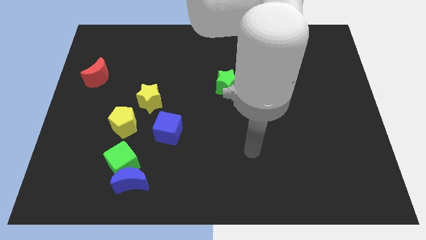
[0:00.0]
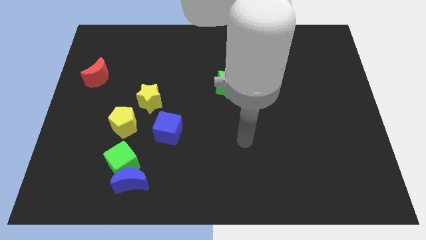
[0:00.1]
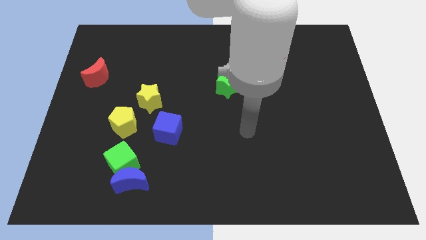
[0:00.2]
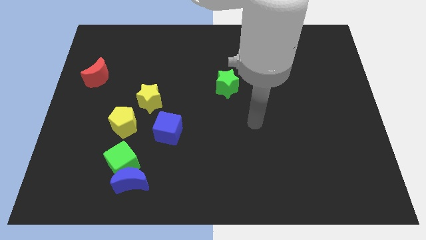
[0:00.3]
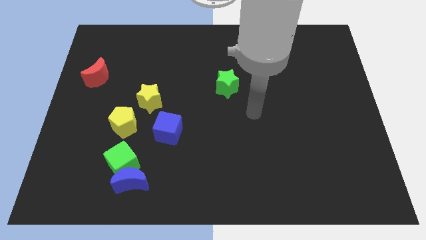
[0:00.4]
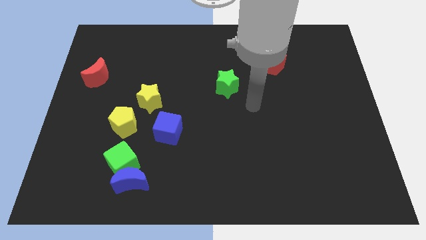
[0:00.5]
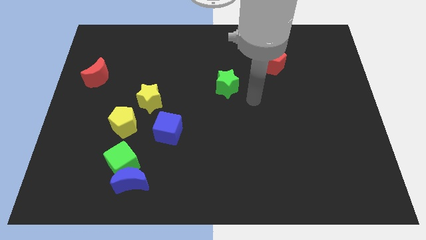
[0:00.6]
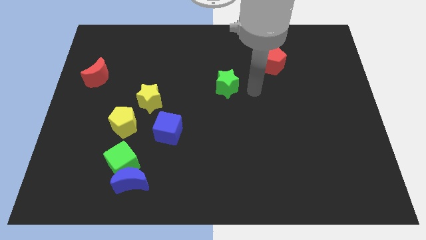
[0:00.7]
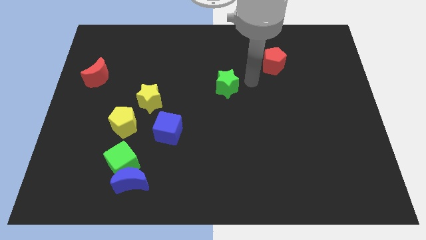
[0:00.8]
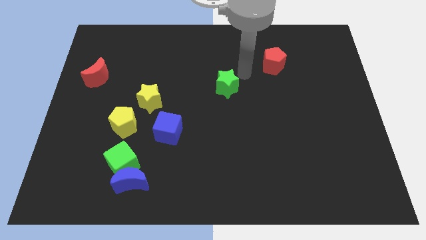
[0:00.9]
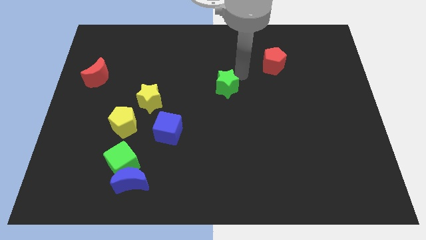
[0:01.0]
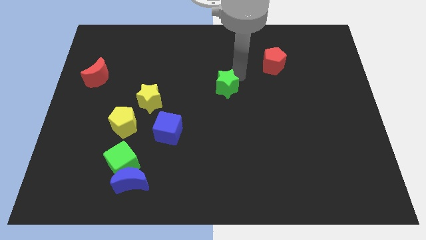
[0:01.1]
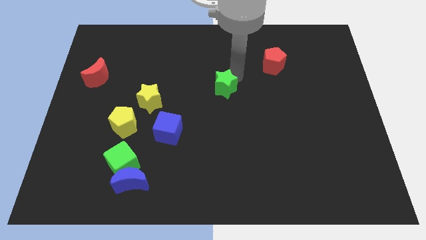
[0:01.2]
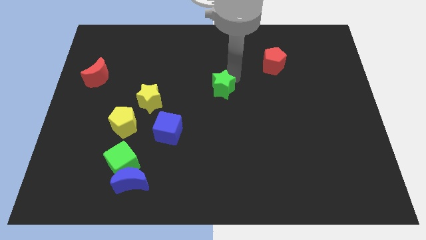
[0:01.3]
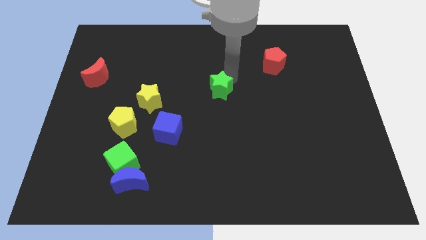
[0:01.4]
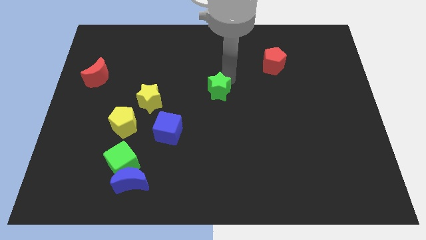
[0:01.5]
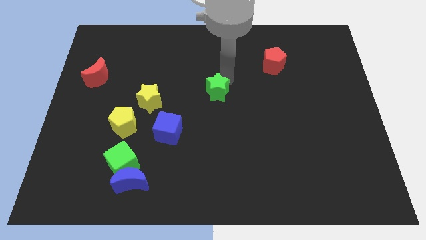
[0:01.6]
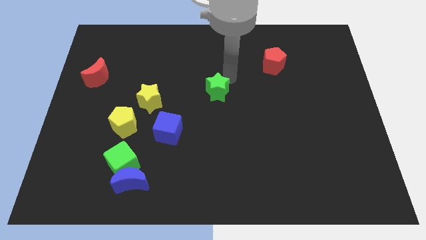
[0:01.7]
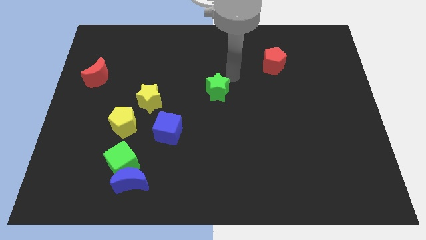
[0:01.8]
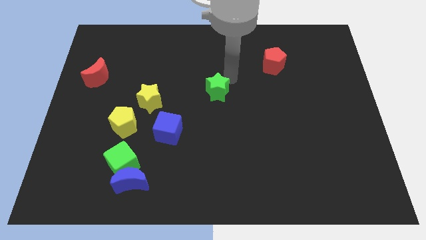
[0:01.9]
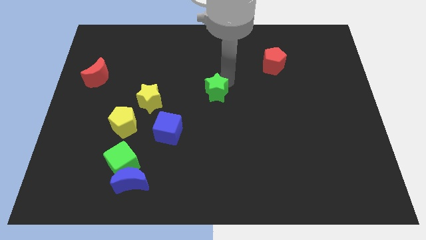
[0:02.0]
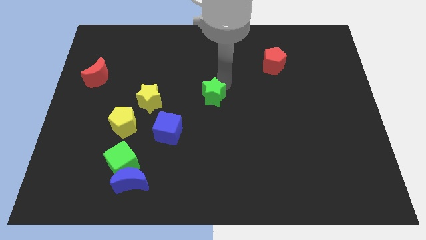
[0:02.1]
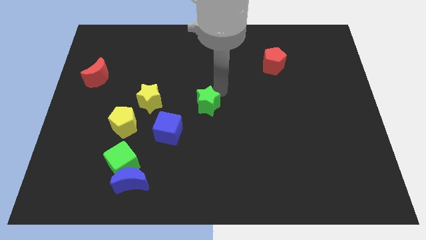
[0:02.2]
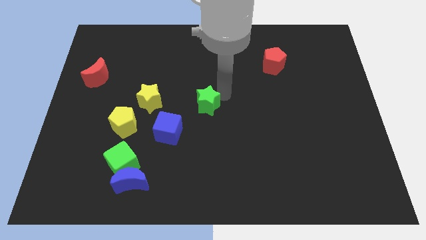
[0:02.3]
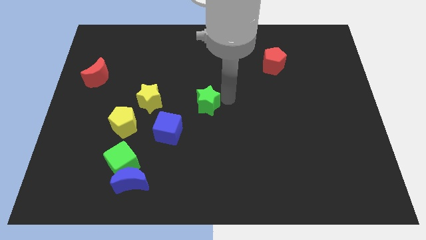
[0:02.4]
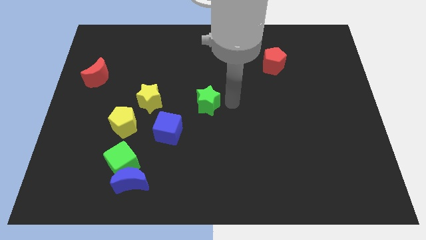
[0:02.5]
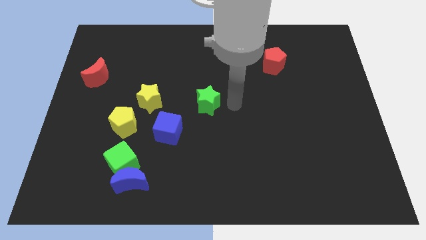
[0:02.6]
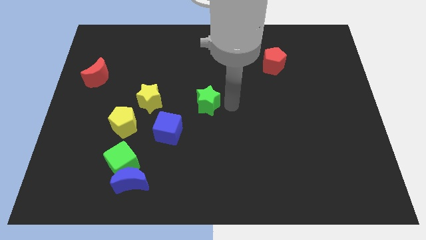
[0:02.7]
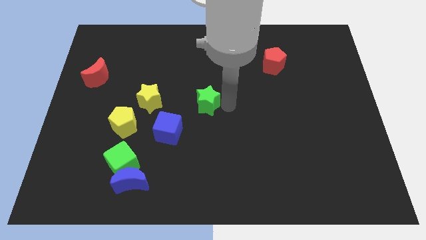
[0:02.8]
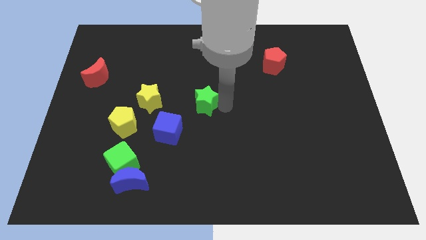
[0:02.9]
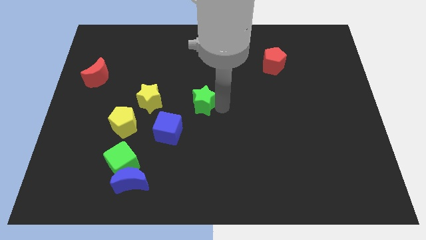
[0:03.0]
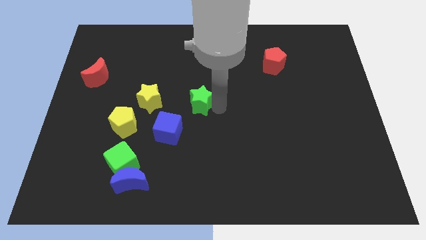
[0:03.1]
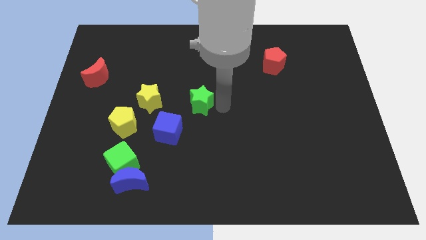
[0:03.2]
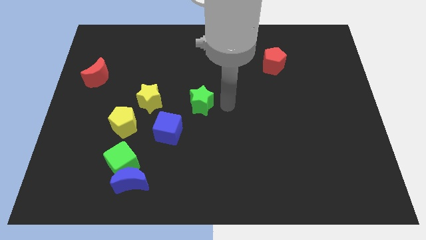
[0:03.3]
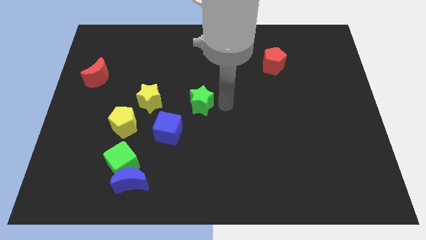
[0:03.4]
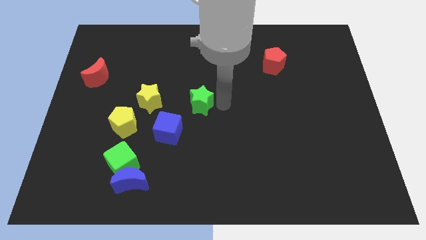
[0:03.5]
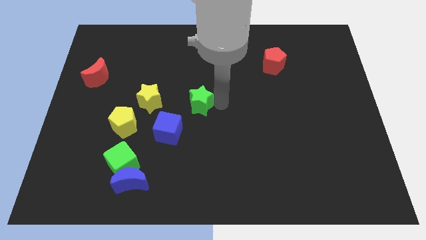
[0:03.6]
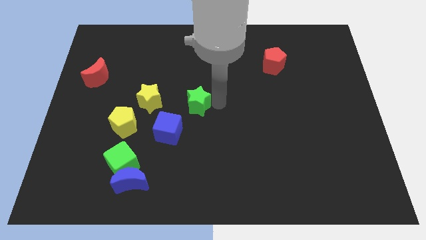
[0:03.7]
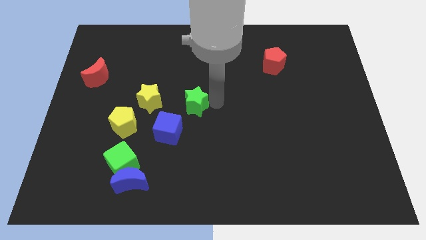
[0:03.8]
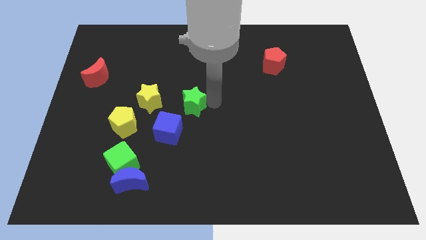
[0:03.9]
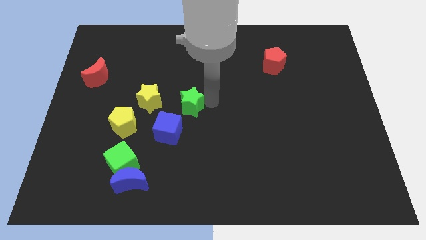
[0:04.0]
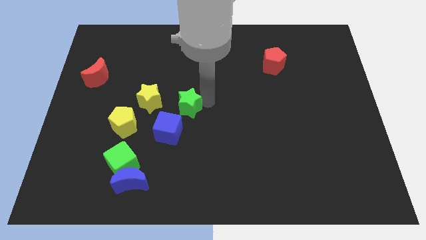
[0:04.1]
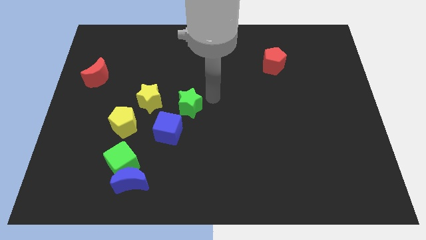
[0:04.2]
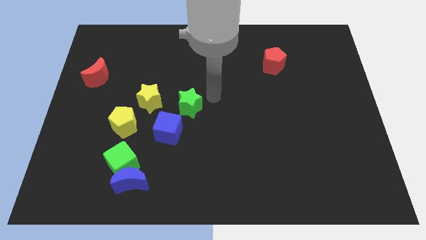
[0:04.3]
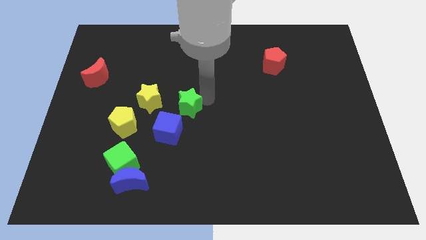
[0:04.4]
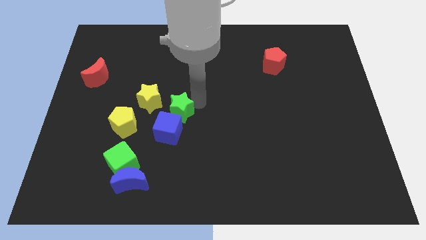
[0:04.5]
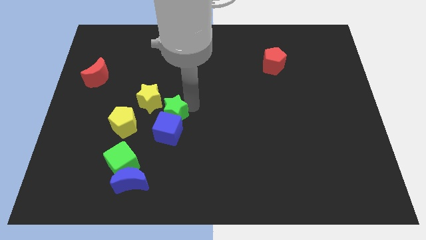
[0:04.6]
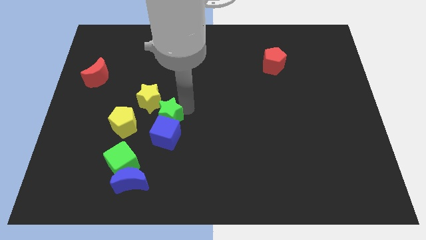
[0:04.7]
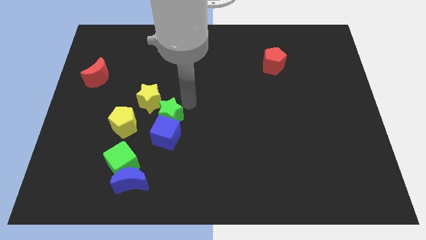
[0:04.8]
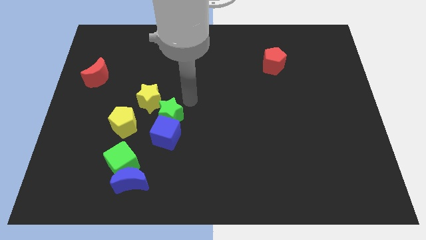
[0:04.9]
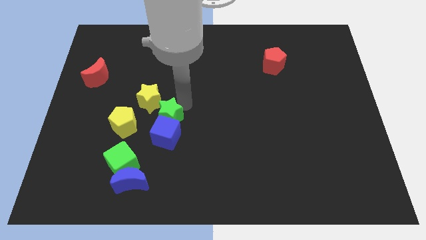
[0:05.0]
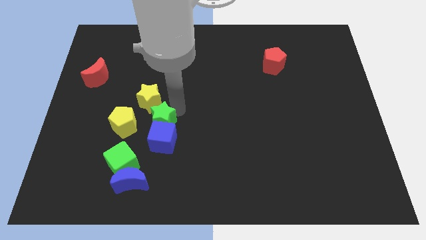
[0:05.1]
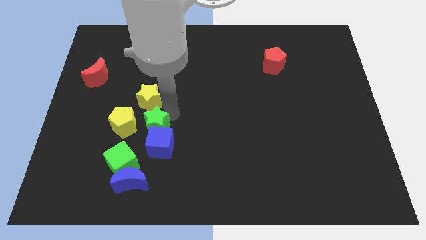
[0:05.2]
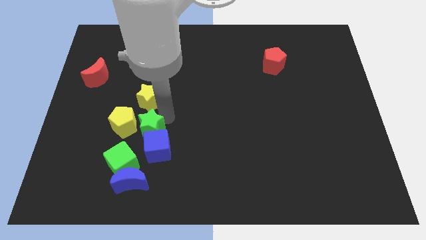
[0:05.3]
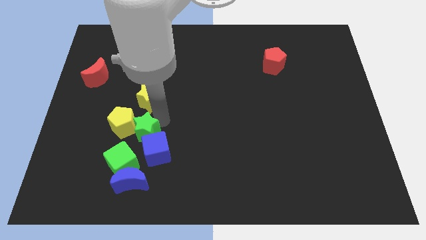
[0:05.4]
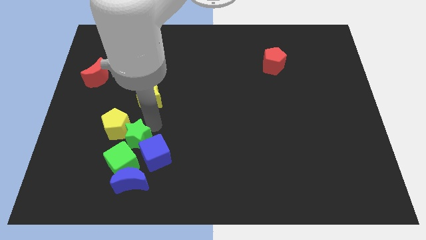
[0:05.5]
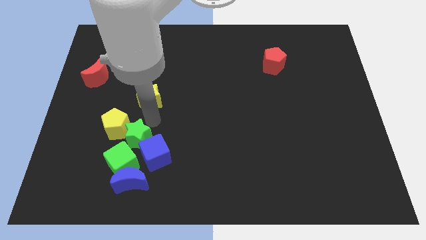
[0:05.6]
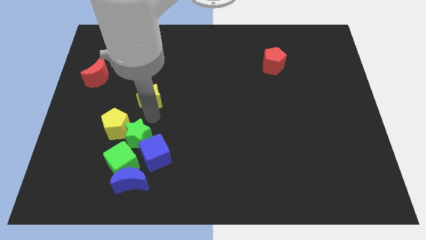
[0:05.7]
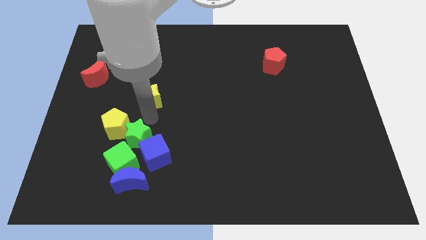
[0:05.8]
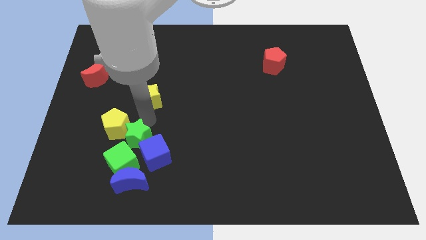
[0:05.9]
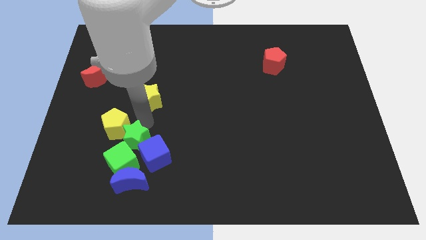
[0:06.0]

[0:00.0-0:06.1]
push the green star close to the green cube

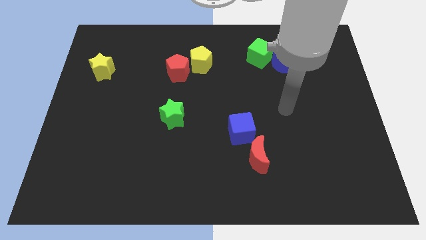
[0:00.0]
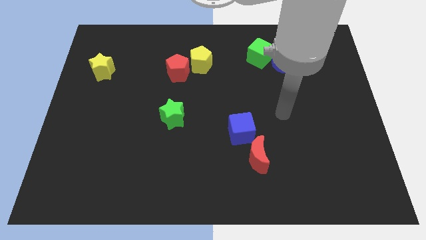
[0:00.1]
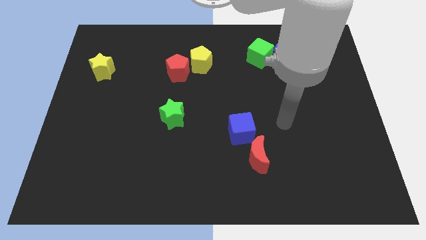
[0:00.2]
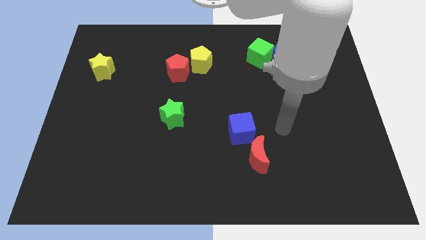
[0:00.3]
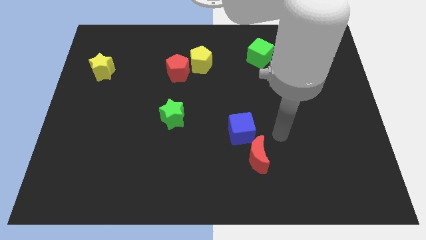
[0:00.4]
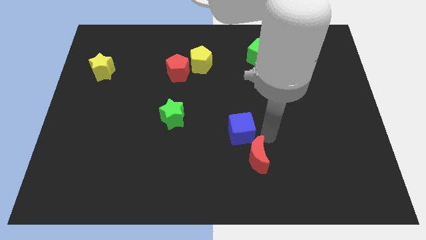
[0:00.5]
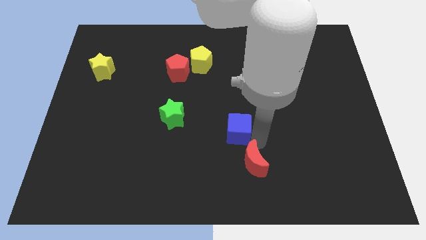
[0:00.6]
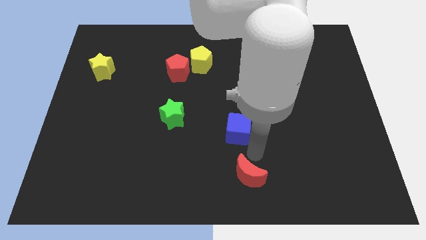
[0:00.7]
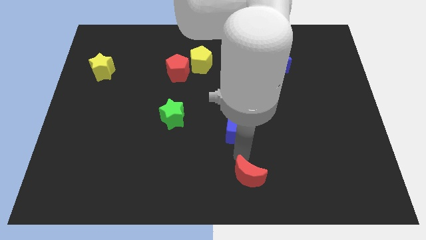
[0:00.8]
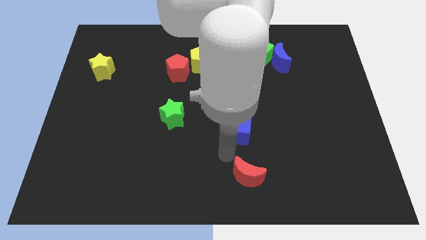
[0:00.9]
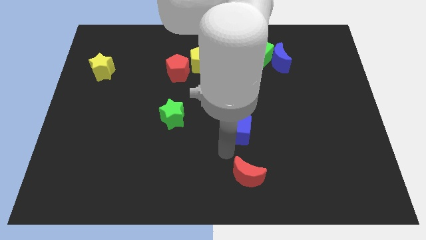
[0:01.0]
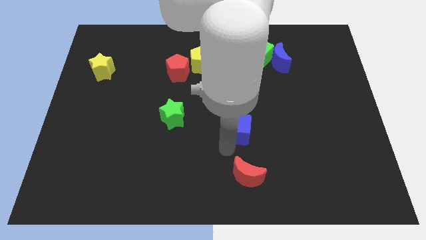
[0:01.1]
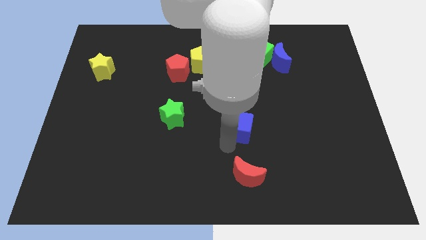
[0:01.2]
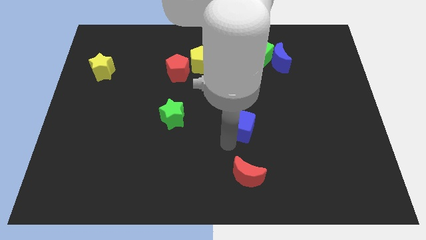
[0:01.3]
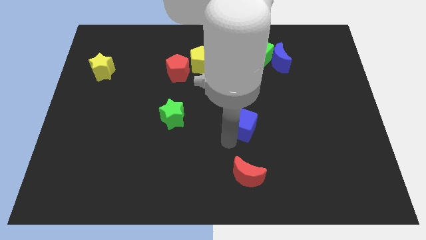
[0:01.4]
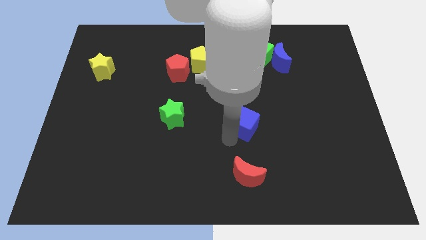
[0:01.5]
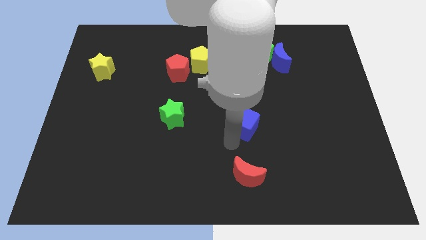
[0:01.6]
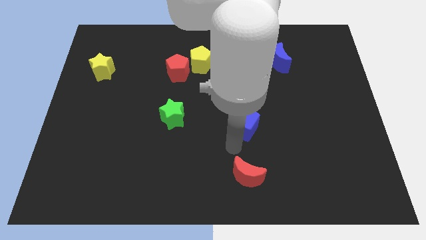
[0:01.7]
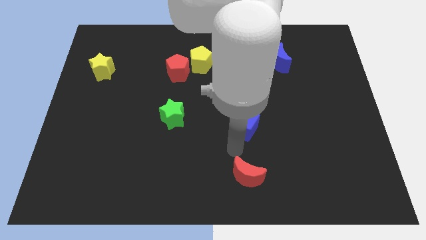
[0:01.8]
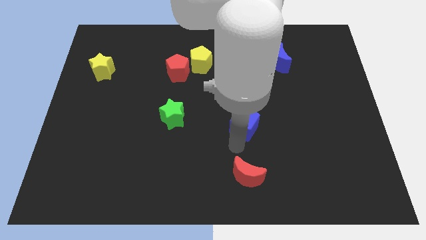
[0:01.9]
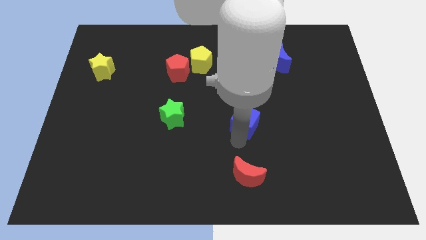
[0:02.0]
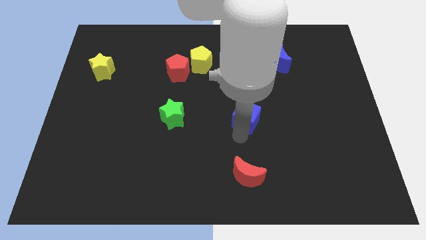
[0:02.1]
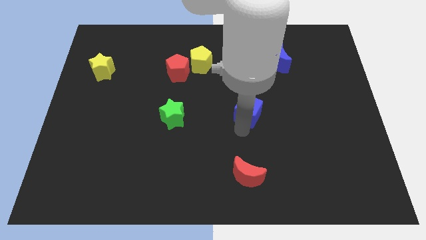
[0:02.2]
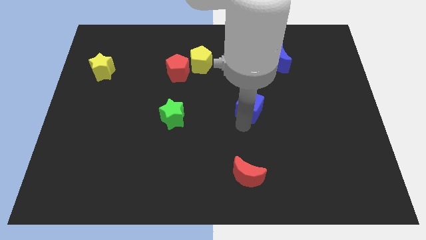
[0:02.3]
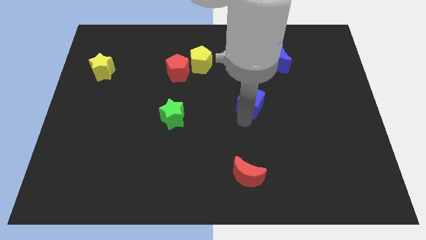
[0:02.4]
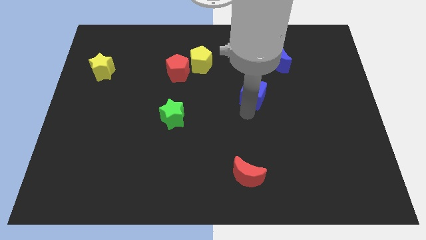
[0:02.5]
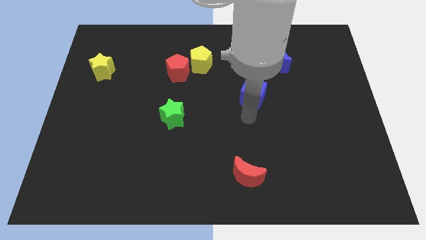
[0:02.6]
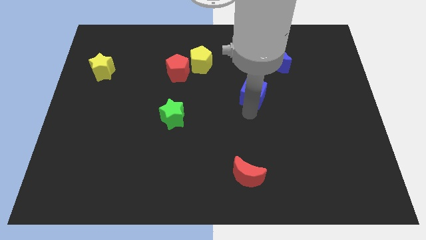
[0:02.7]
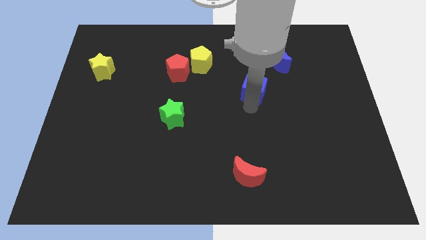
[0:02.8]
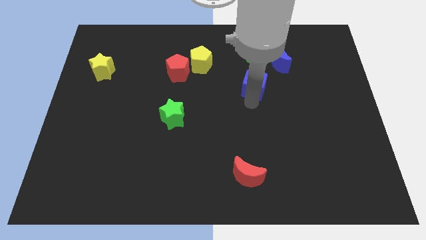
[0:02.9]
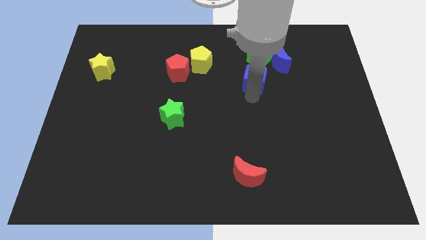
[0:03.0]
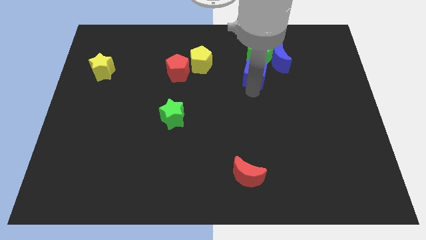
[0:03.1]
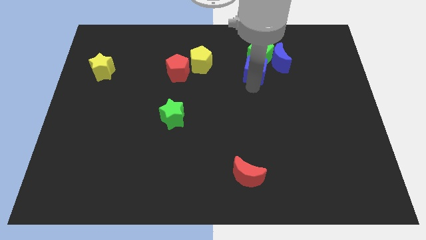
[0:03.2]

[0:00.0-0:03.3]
put the blue cube towards the green cube
